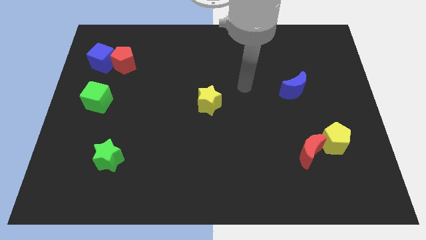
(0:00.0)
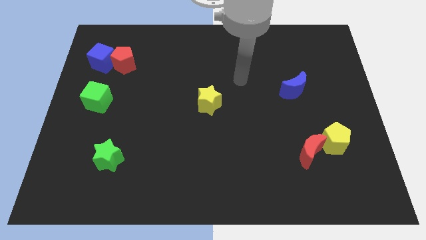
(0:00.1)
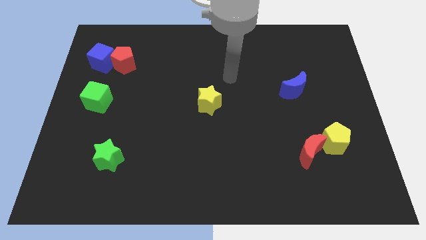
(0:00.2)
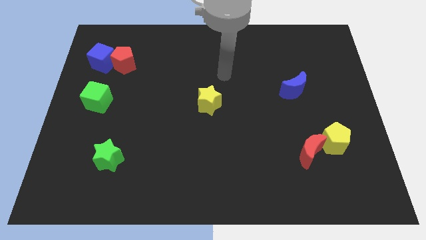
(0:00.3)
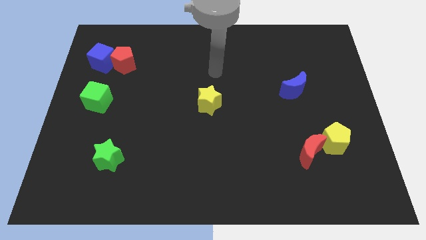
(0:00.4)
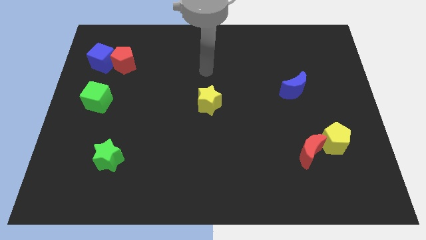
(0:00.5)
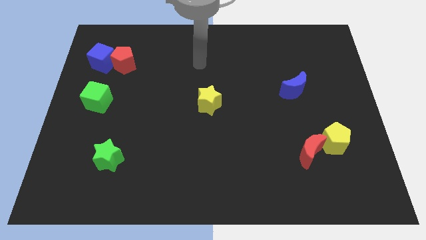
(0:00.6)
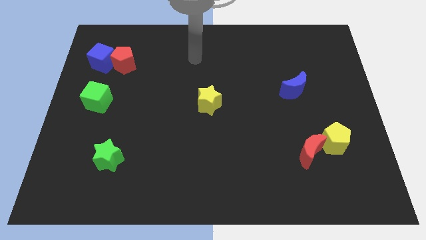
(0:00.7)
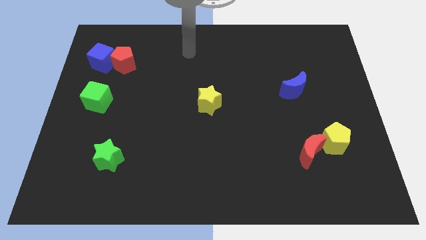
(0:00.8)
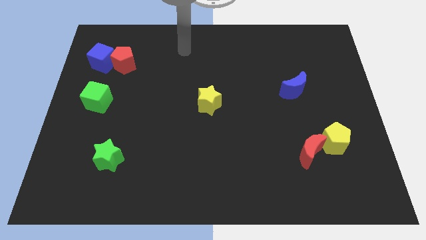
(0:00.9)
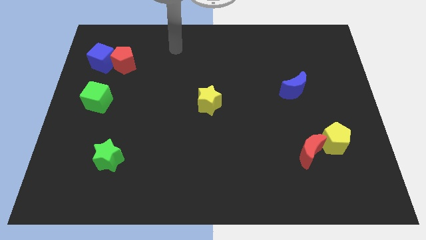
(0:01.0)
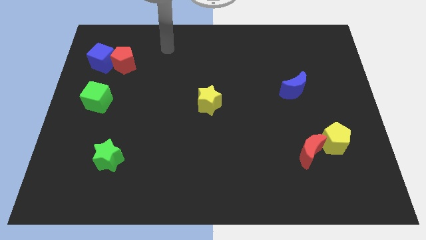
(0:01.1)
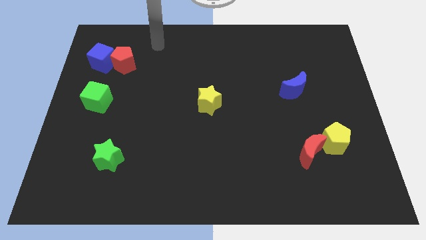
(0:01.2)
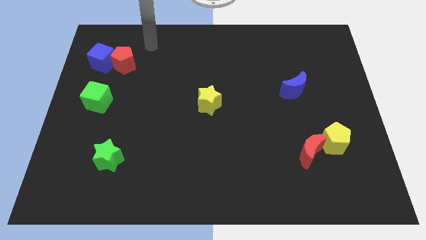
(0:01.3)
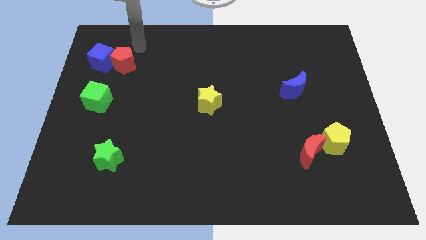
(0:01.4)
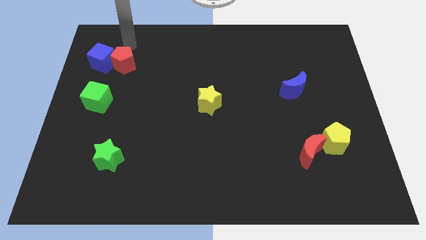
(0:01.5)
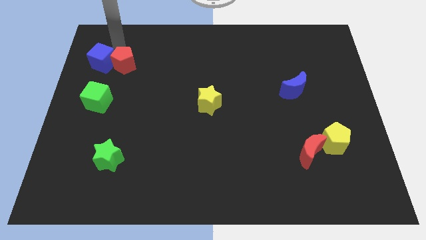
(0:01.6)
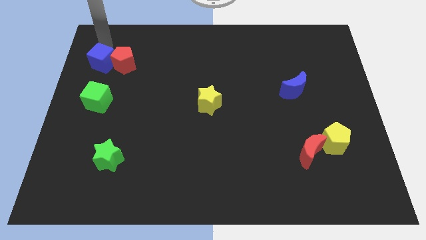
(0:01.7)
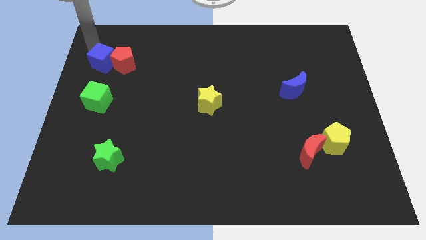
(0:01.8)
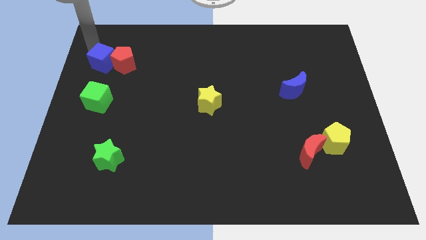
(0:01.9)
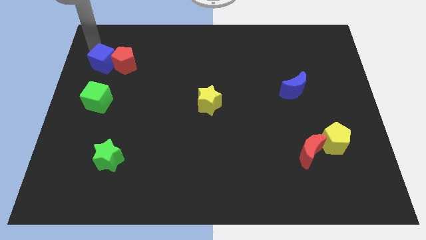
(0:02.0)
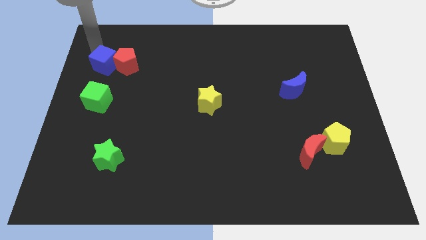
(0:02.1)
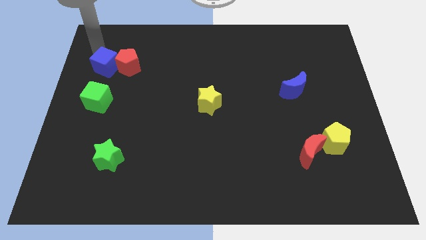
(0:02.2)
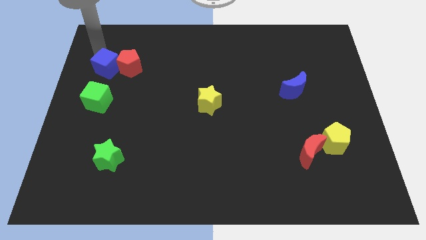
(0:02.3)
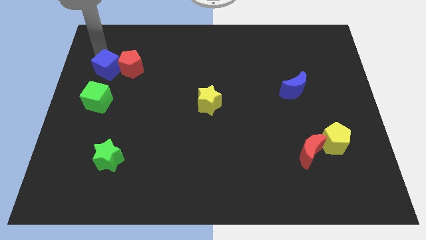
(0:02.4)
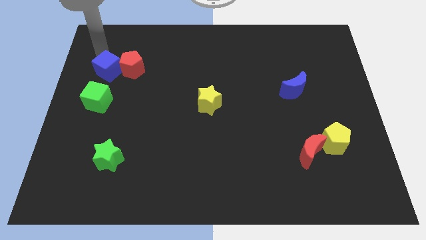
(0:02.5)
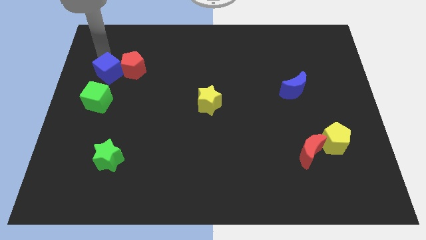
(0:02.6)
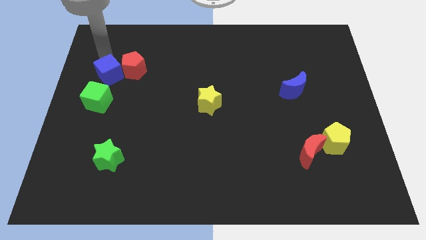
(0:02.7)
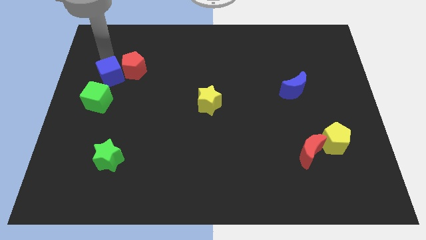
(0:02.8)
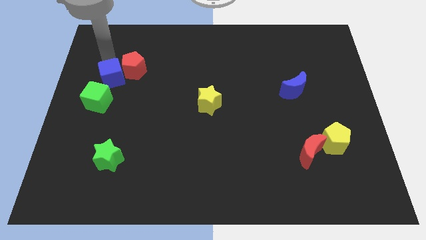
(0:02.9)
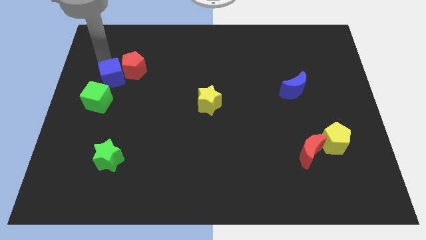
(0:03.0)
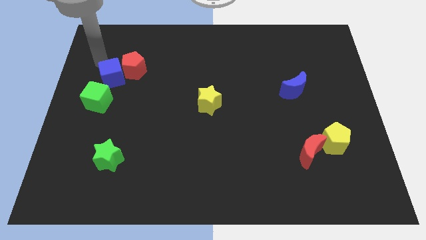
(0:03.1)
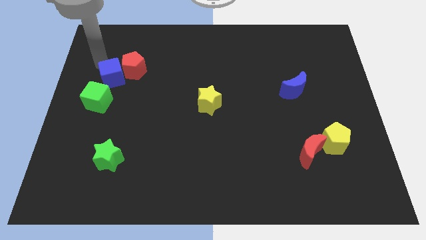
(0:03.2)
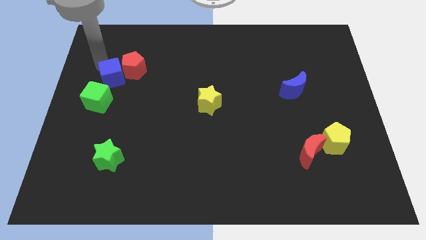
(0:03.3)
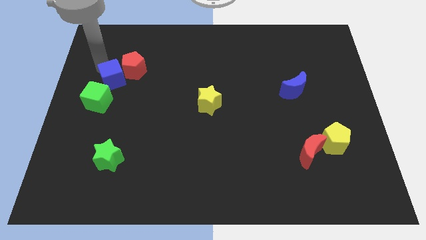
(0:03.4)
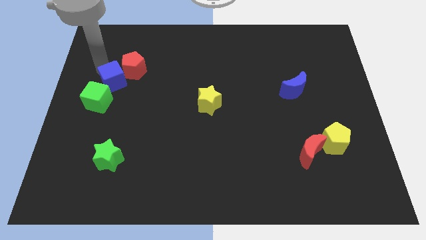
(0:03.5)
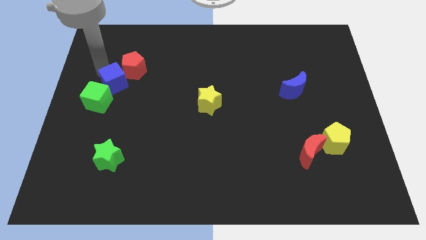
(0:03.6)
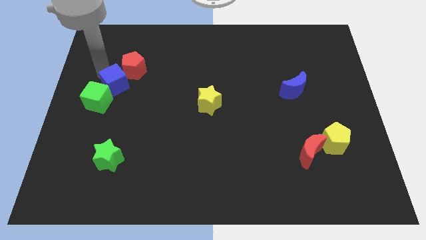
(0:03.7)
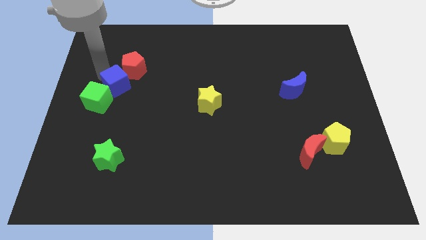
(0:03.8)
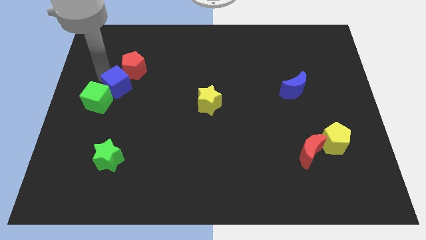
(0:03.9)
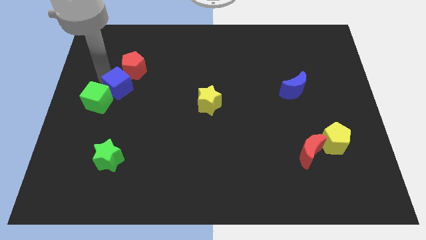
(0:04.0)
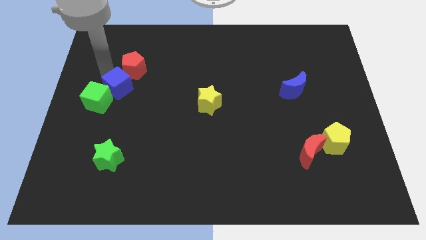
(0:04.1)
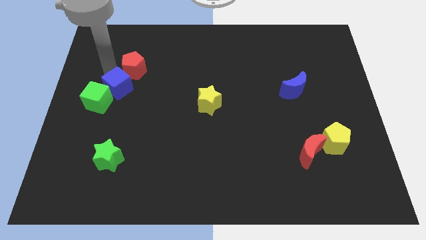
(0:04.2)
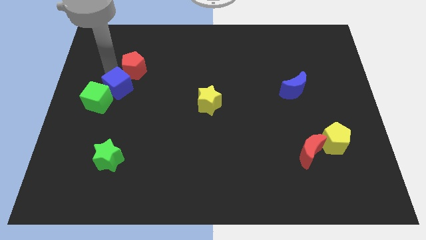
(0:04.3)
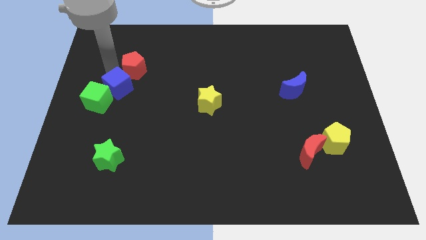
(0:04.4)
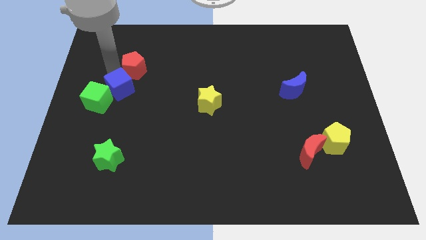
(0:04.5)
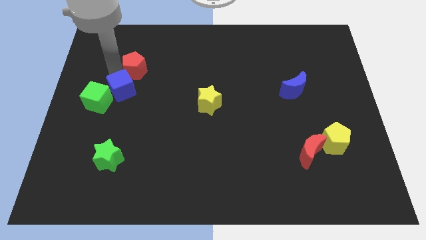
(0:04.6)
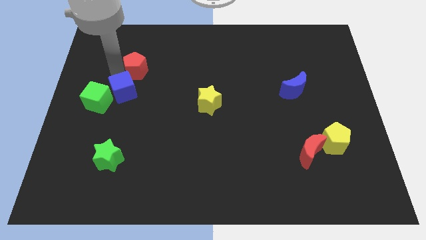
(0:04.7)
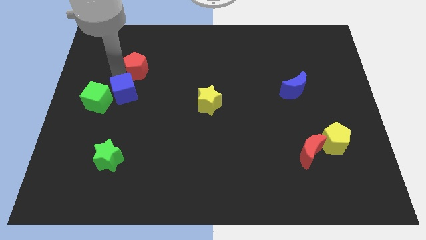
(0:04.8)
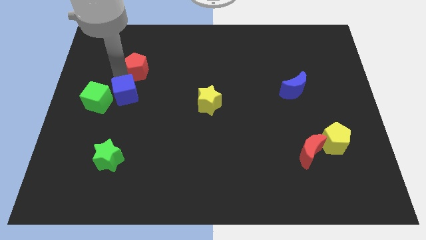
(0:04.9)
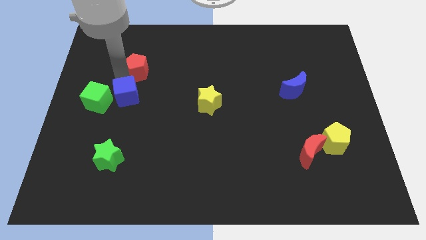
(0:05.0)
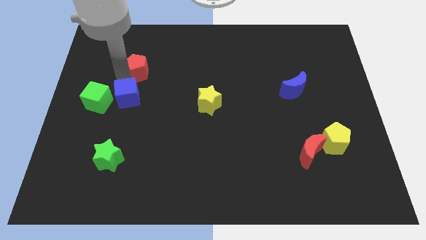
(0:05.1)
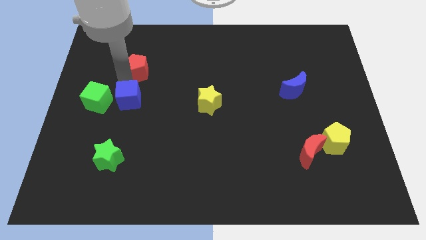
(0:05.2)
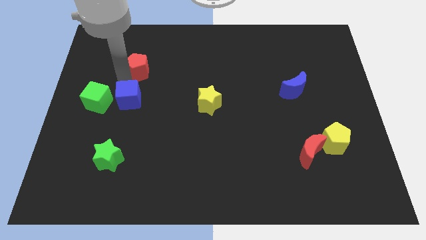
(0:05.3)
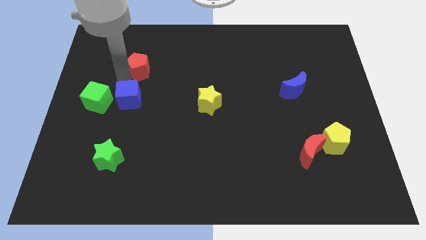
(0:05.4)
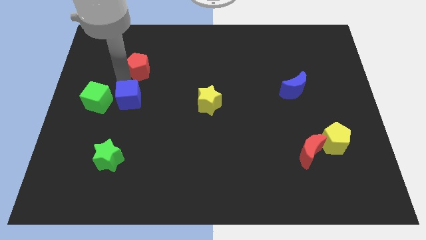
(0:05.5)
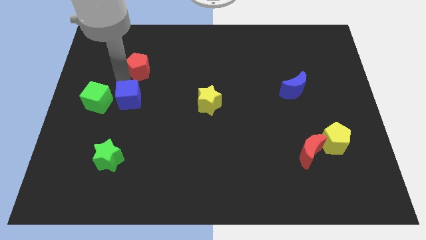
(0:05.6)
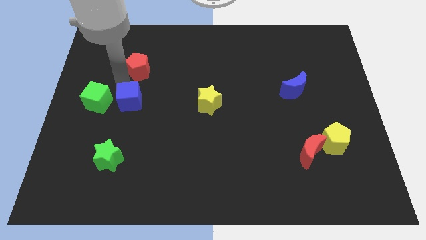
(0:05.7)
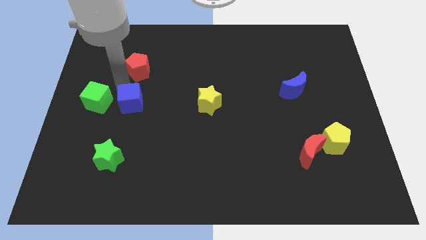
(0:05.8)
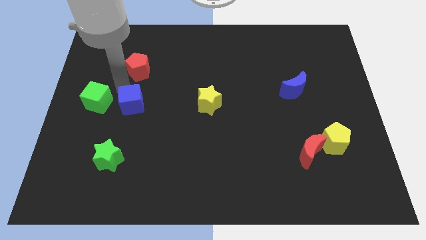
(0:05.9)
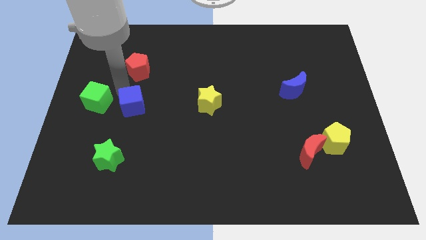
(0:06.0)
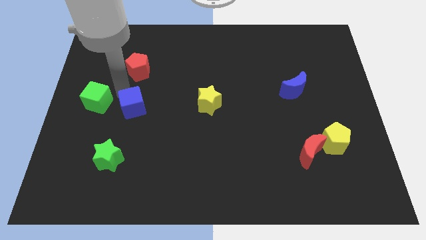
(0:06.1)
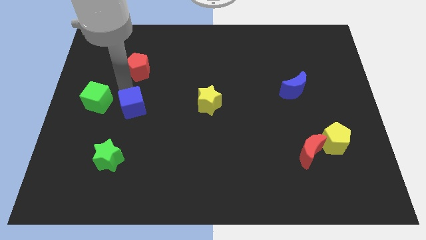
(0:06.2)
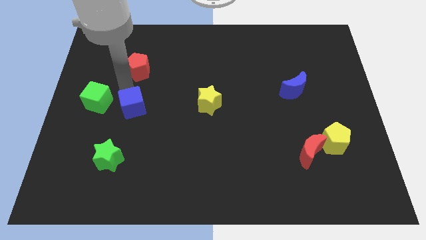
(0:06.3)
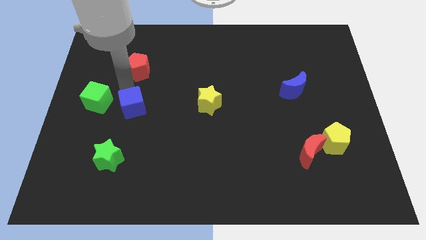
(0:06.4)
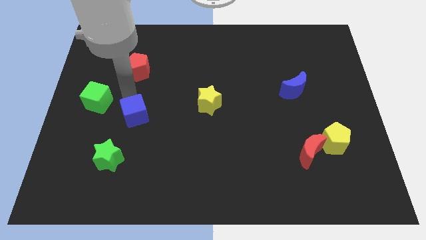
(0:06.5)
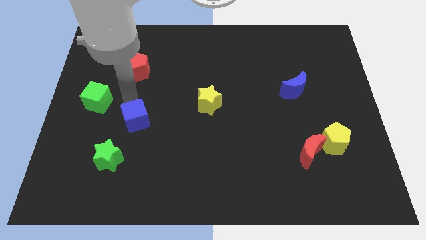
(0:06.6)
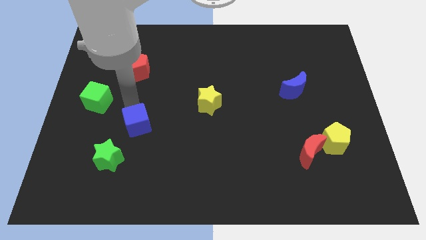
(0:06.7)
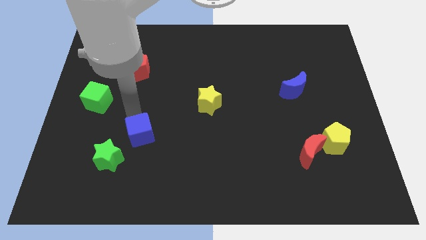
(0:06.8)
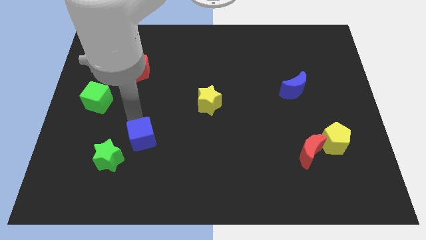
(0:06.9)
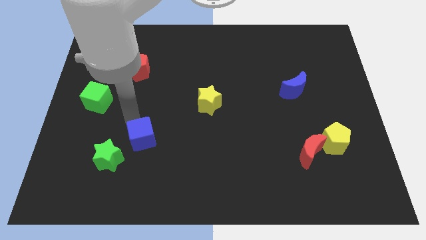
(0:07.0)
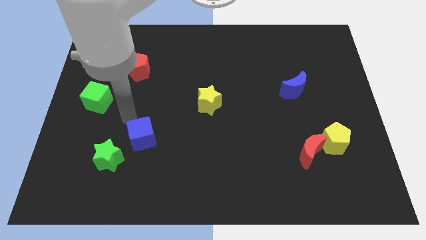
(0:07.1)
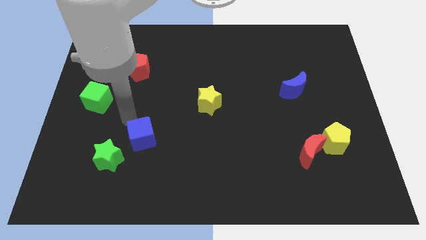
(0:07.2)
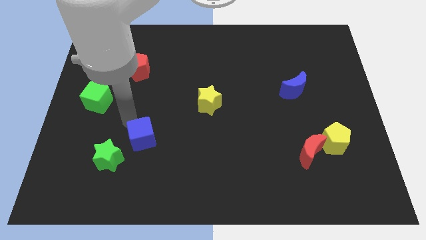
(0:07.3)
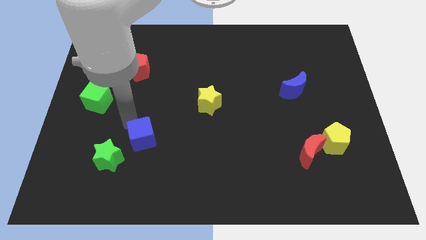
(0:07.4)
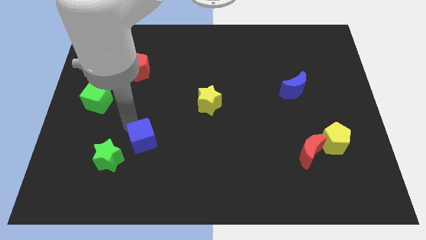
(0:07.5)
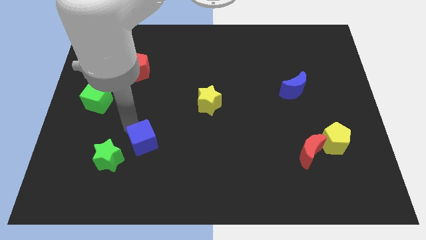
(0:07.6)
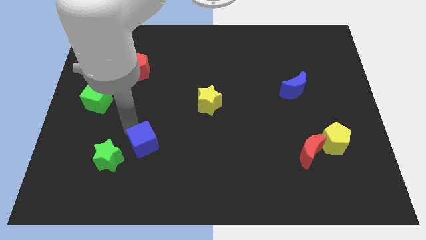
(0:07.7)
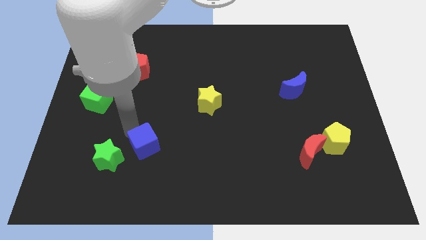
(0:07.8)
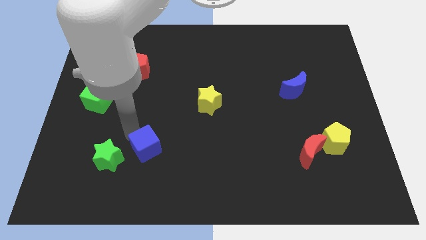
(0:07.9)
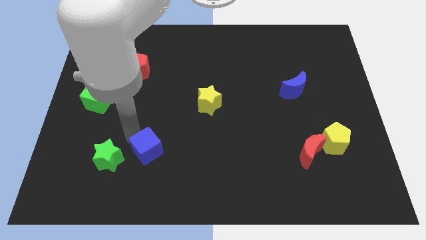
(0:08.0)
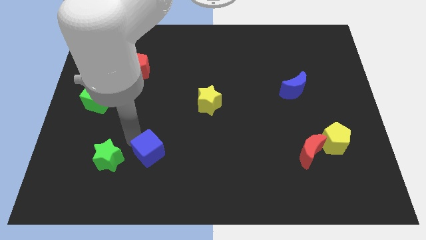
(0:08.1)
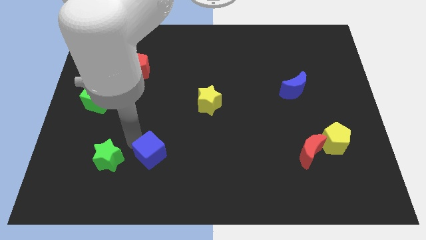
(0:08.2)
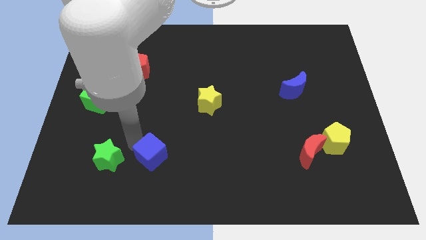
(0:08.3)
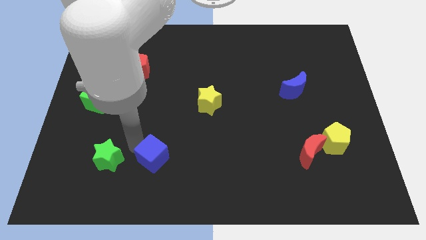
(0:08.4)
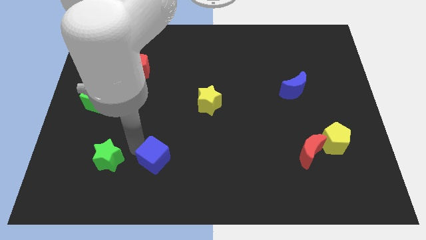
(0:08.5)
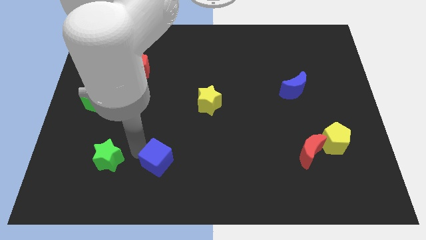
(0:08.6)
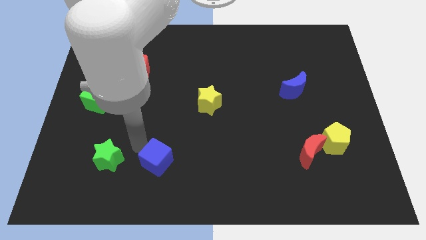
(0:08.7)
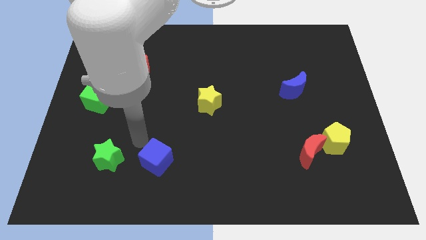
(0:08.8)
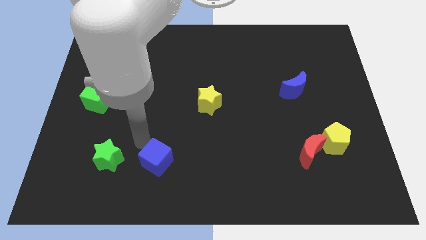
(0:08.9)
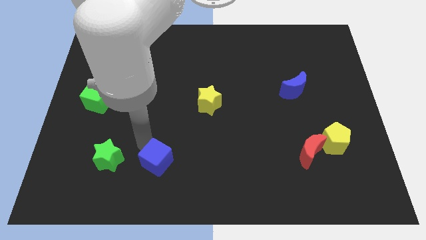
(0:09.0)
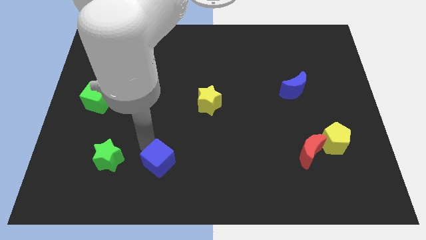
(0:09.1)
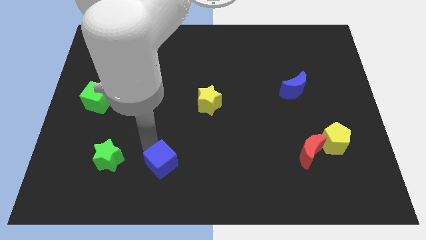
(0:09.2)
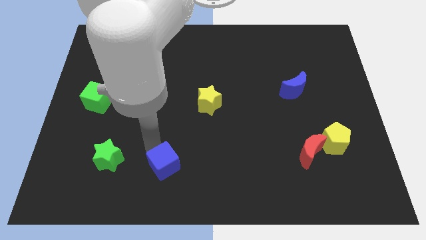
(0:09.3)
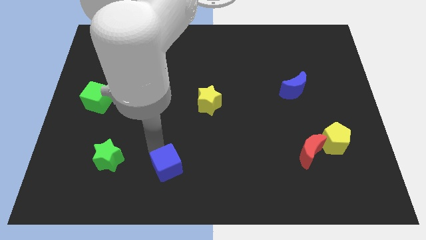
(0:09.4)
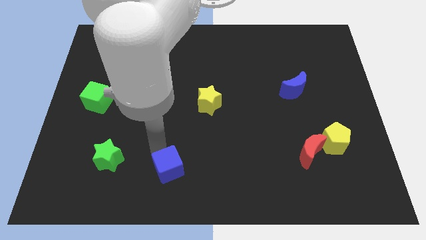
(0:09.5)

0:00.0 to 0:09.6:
slide the blue cube to the bottom side
